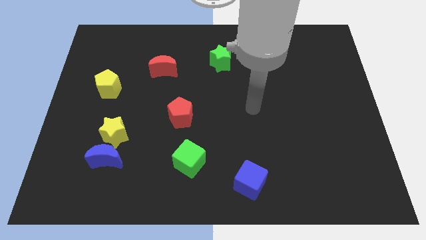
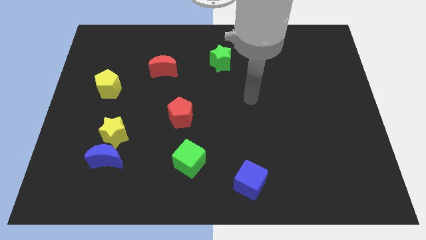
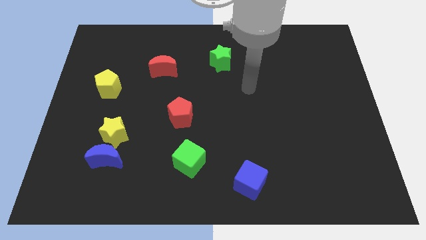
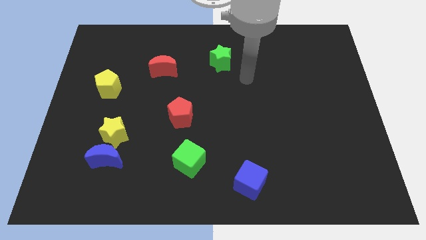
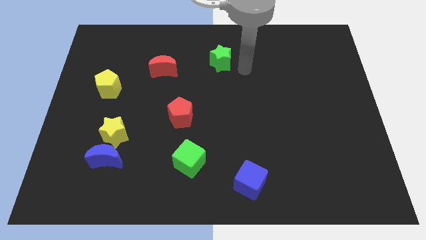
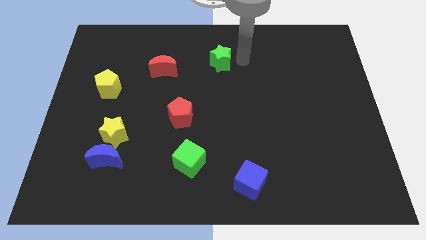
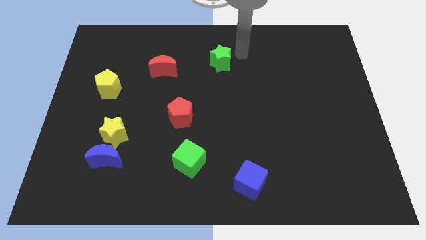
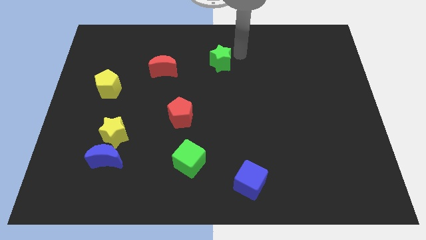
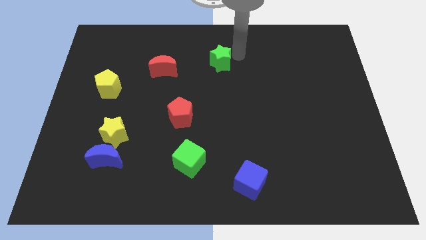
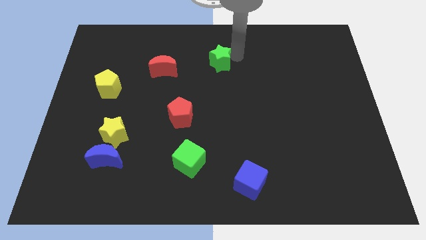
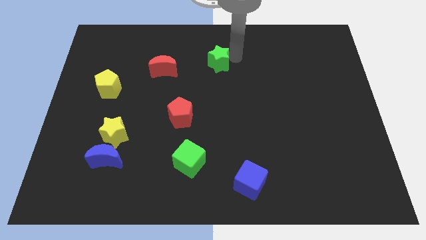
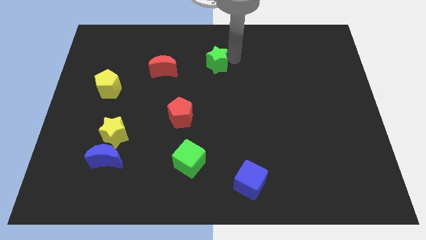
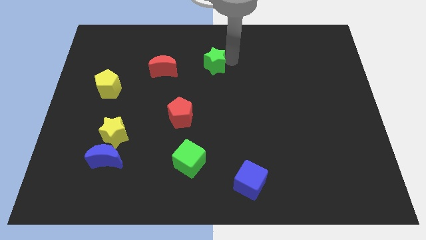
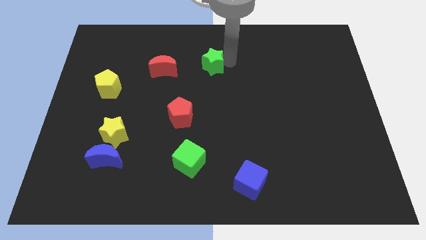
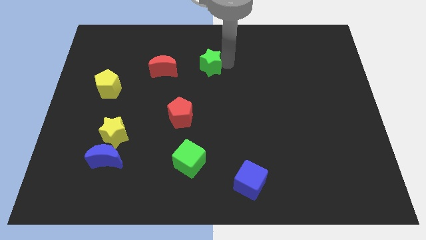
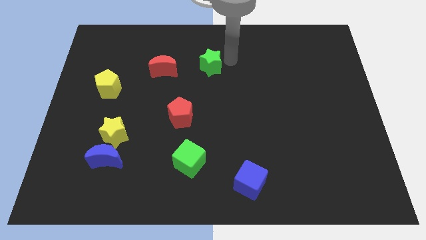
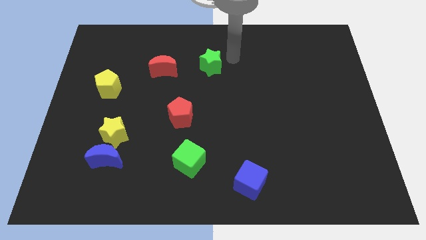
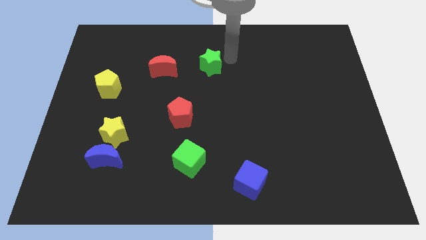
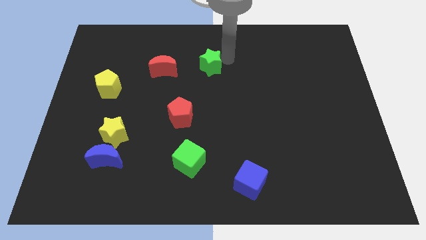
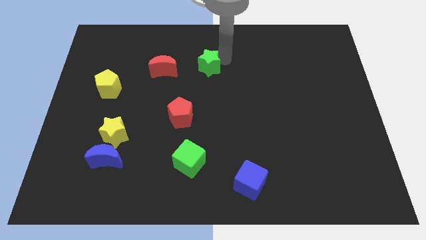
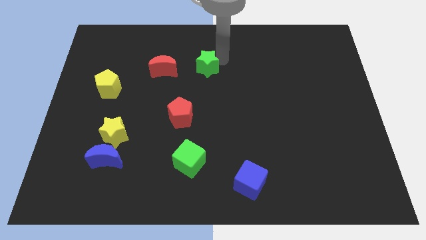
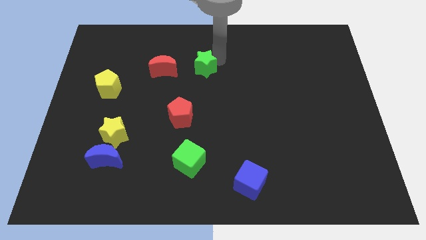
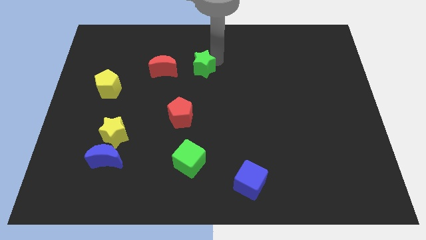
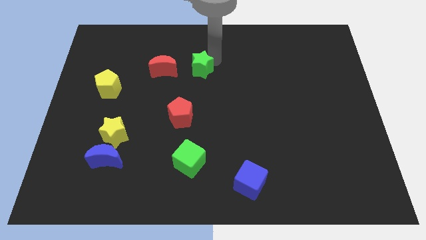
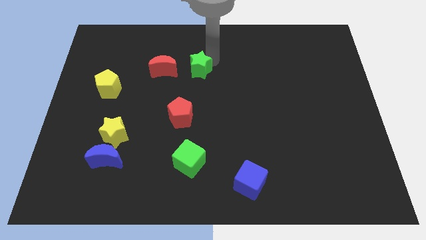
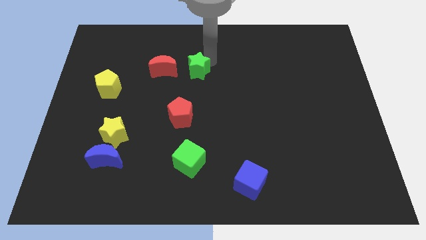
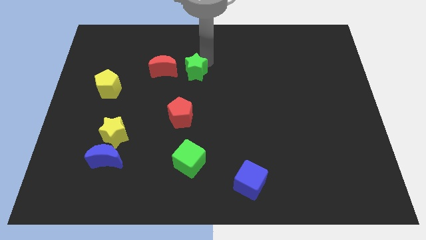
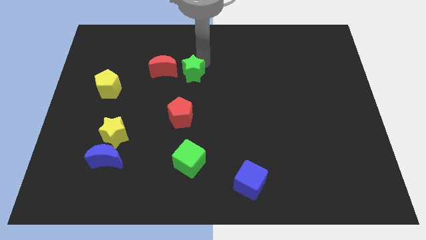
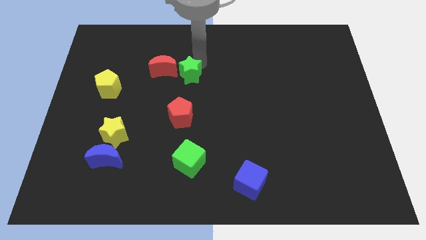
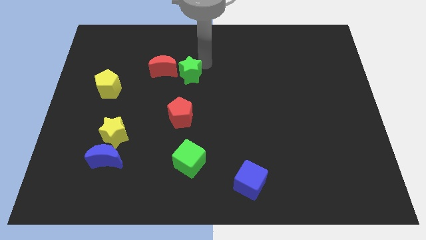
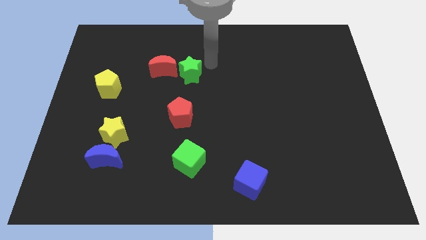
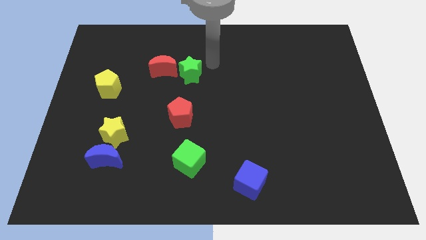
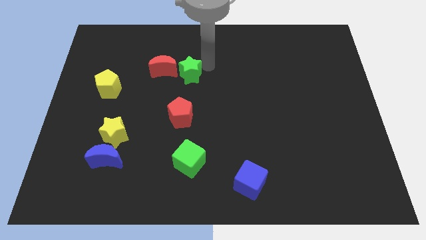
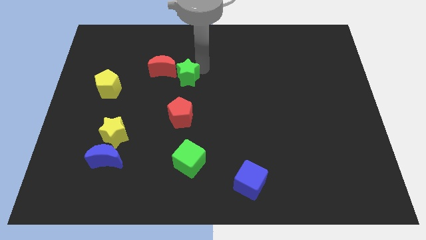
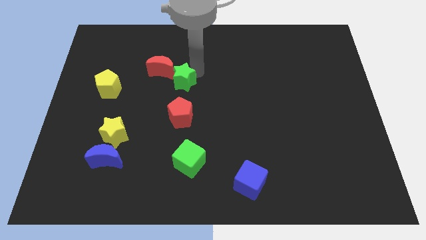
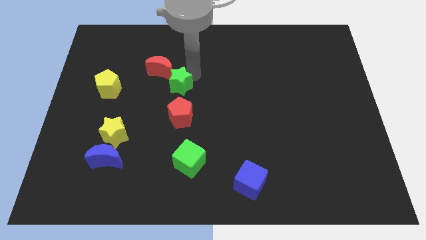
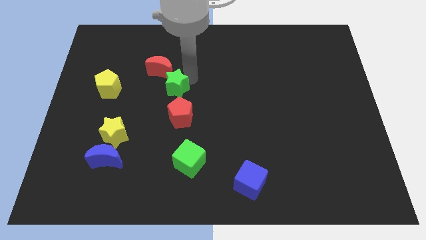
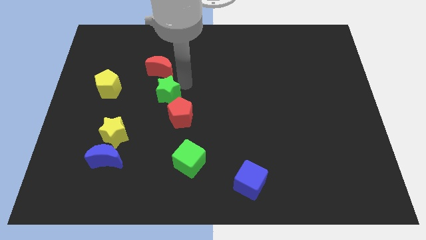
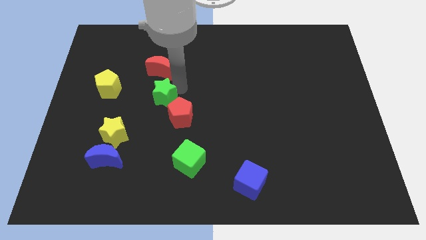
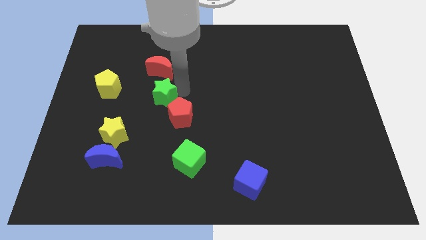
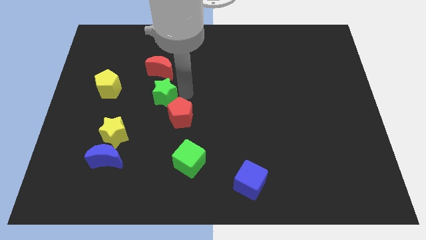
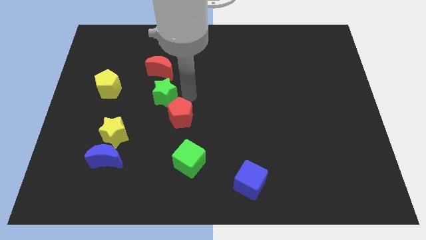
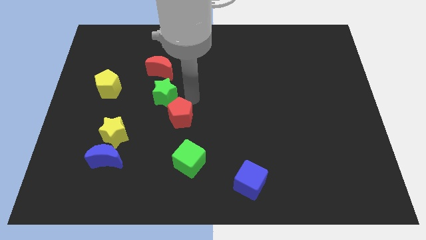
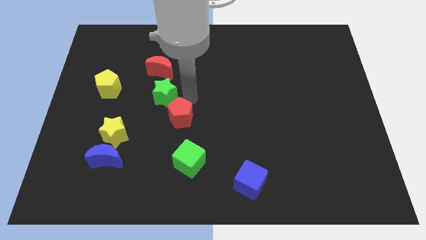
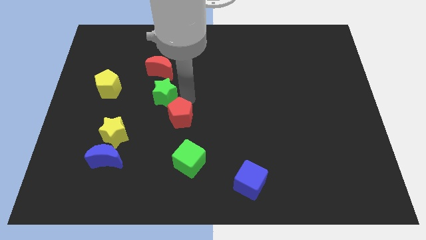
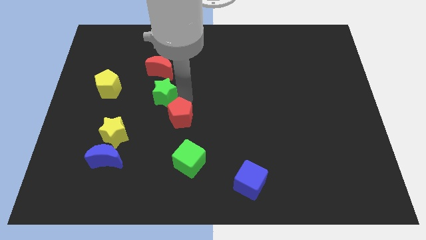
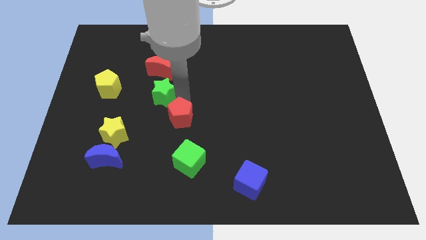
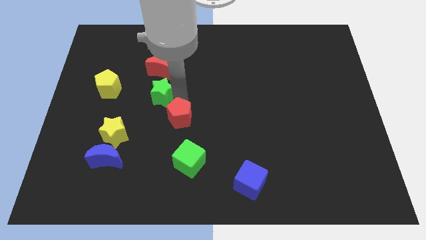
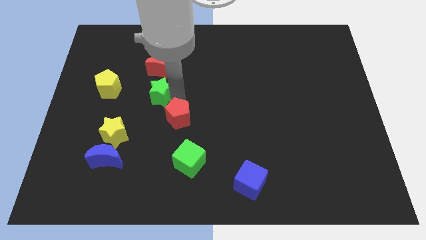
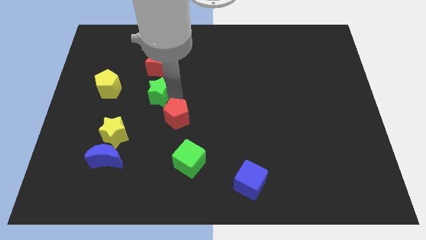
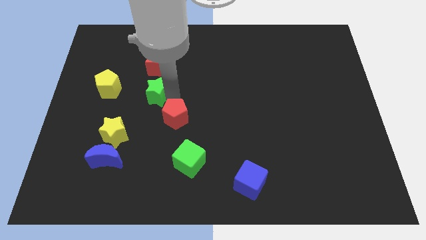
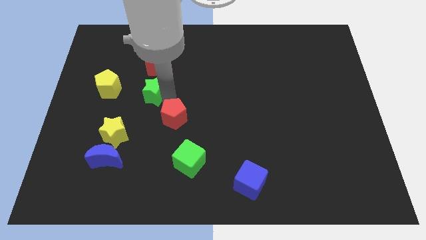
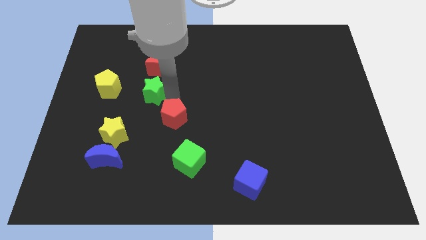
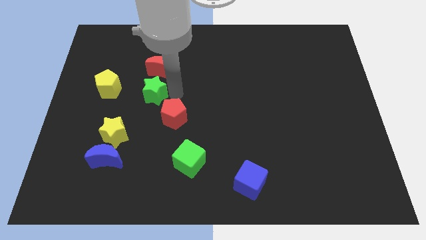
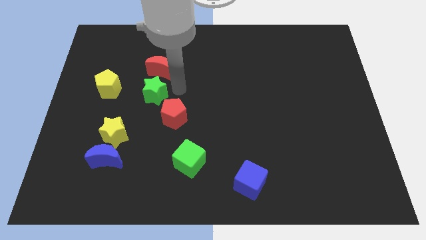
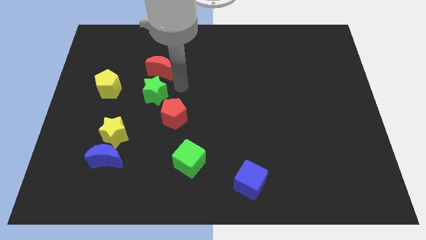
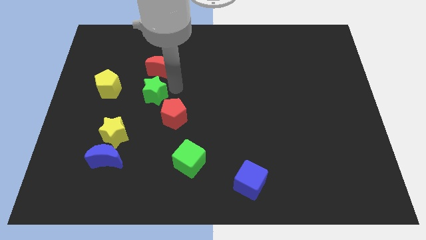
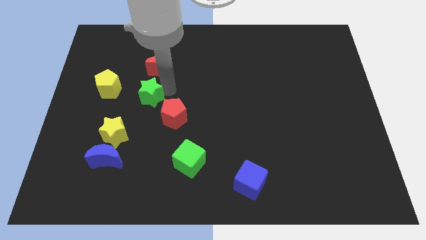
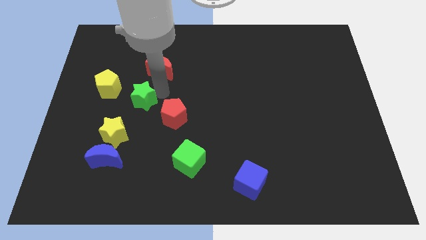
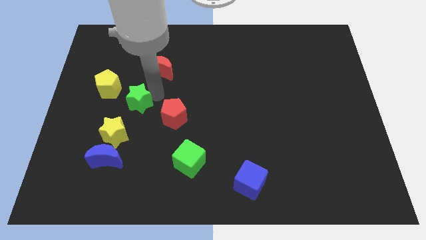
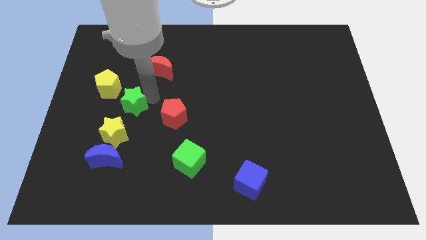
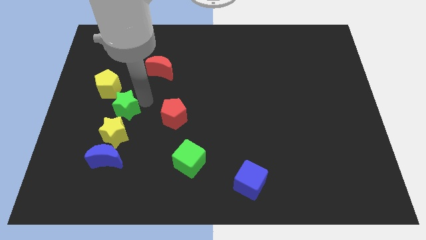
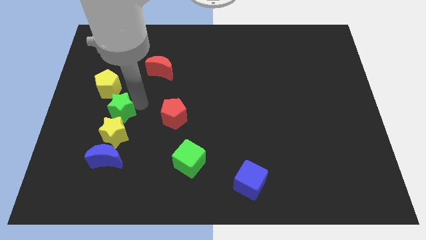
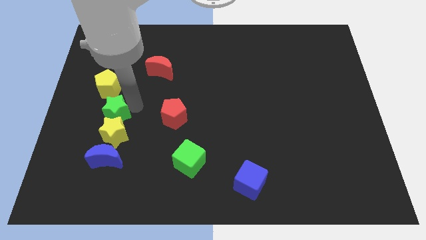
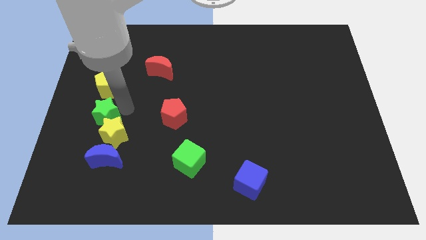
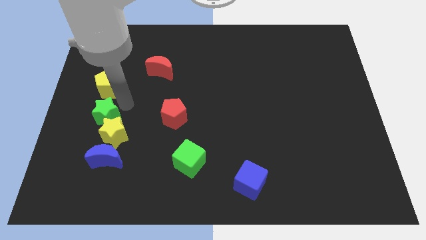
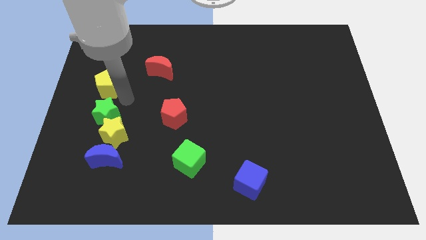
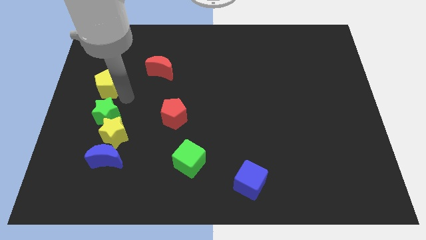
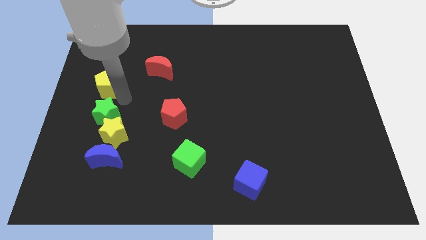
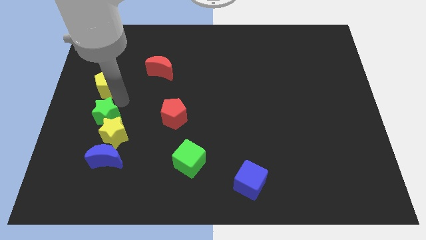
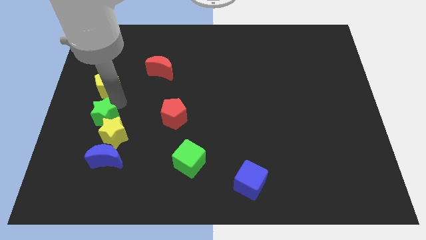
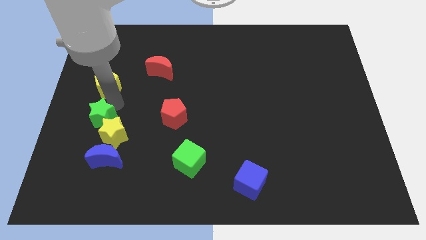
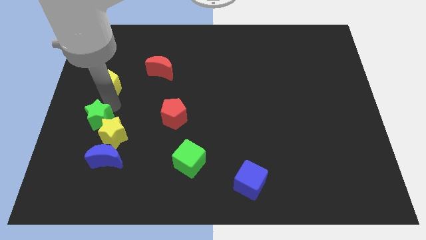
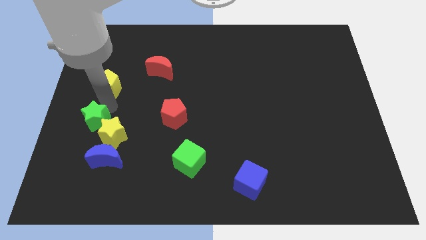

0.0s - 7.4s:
put the green star to the top left of the blue moon

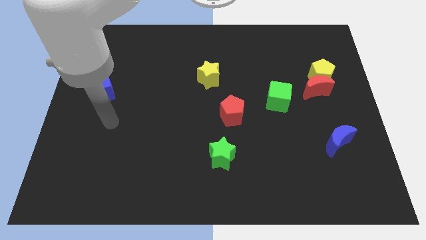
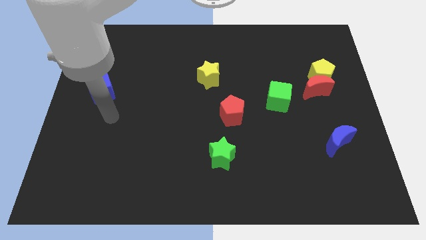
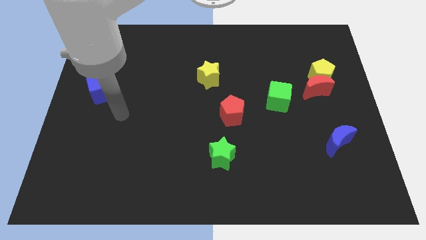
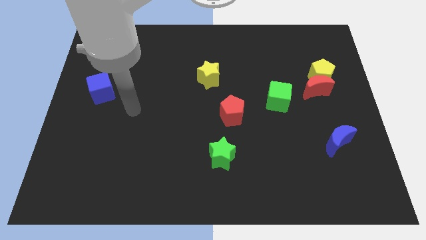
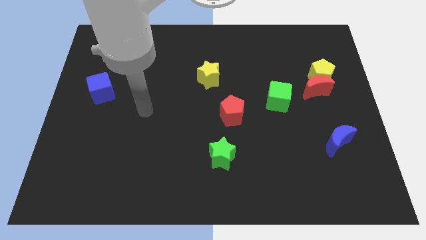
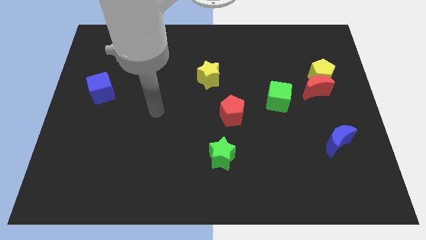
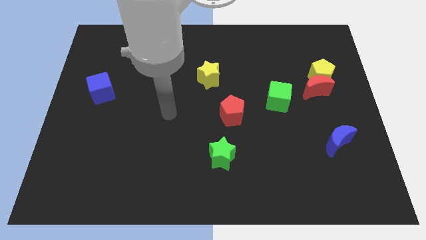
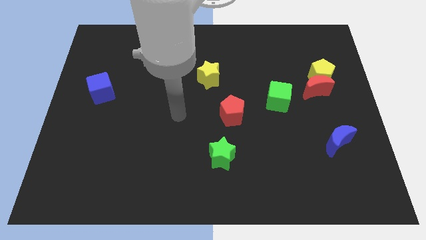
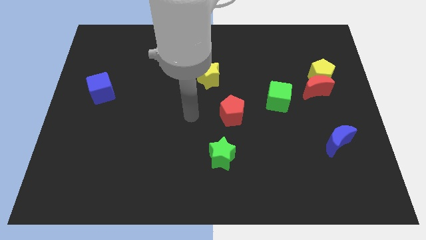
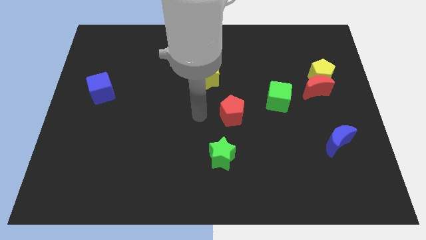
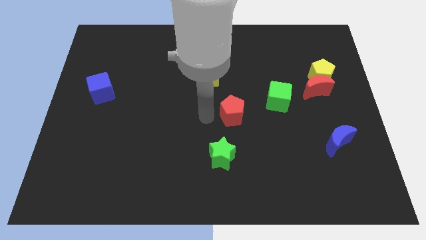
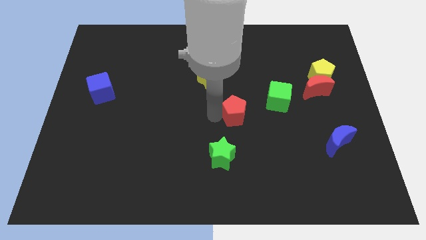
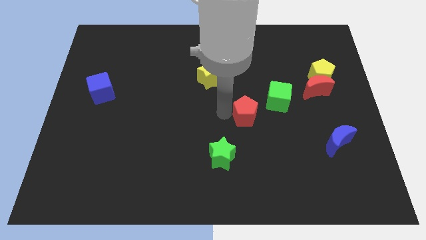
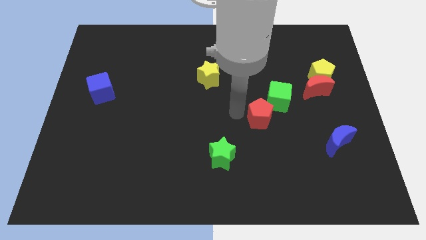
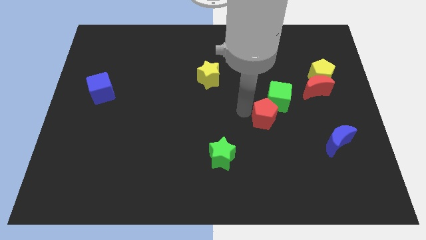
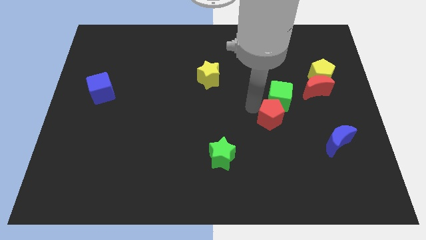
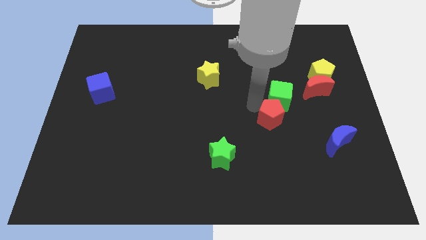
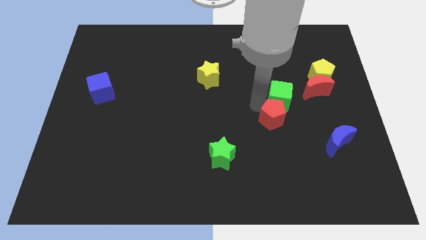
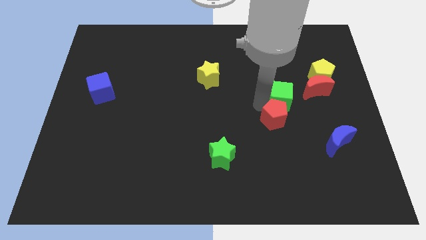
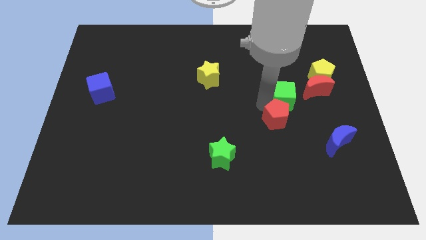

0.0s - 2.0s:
slide the green cube to the bottom left of the yellow pentagon
